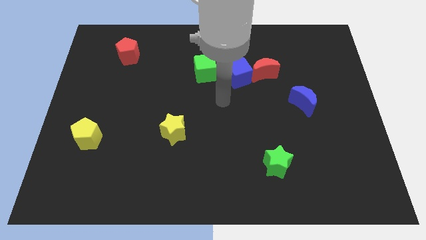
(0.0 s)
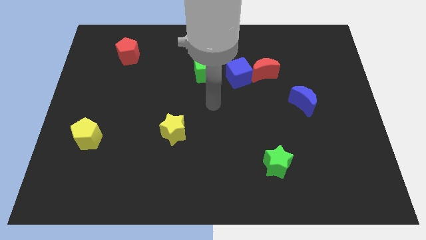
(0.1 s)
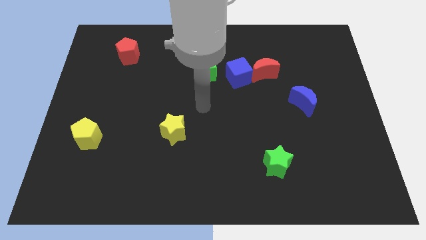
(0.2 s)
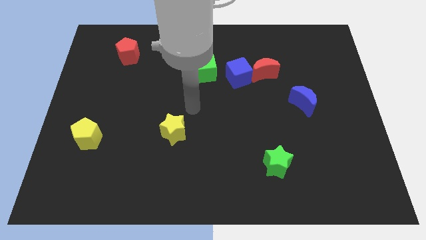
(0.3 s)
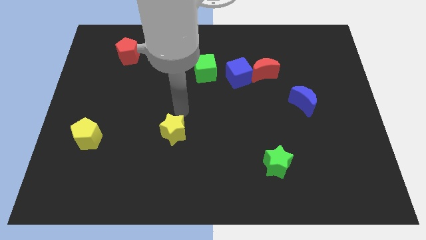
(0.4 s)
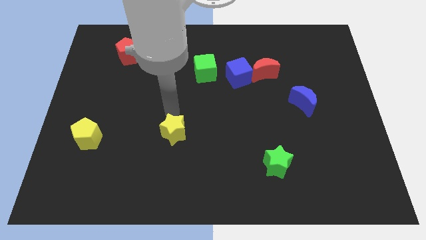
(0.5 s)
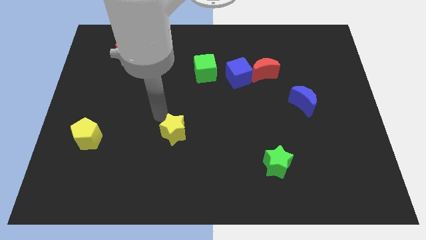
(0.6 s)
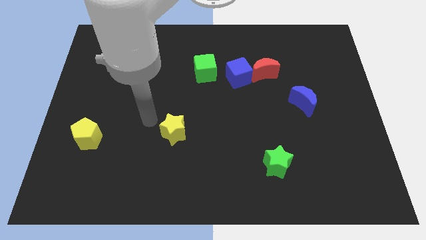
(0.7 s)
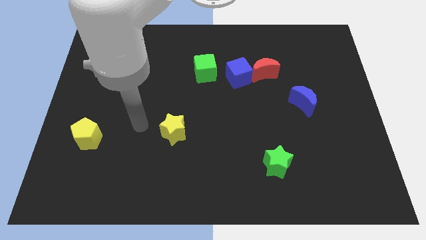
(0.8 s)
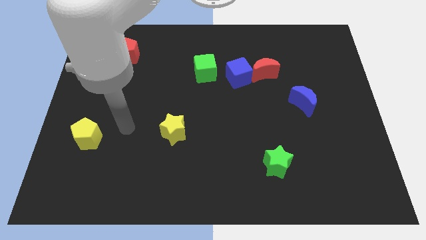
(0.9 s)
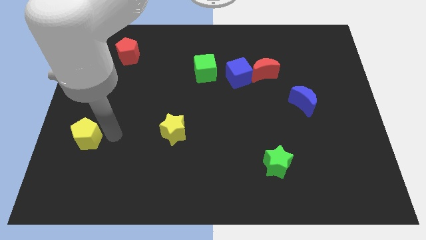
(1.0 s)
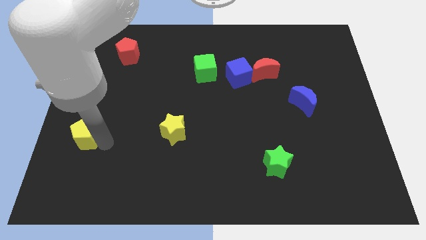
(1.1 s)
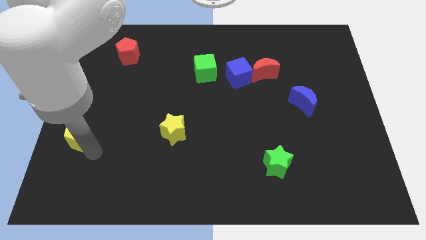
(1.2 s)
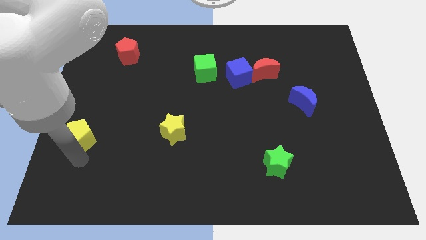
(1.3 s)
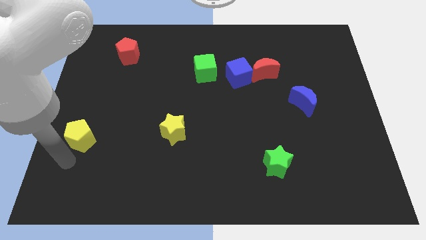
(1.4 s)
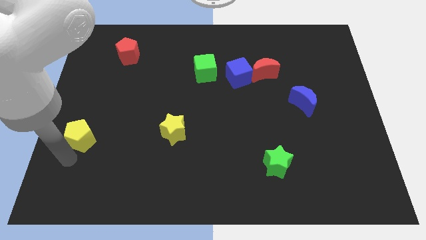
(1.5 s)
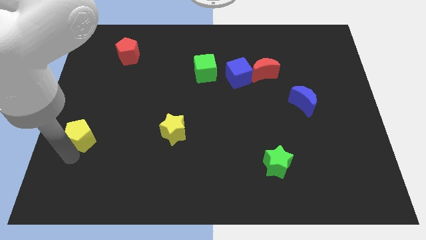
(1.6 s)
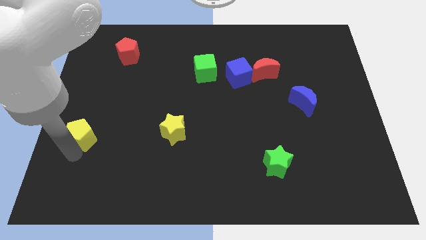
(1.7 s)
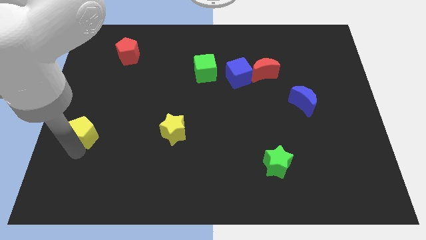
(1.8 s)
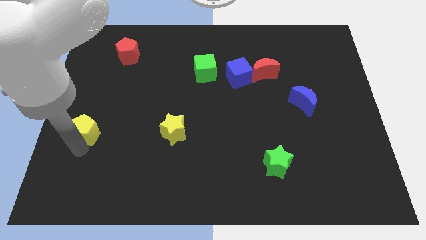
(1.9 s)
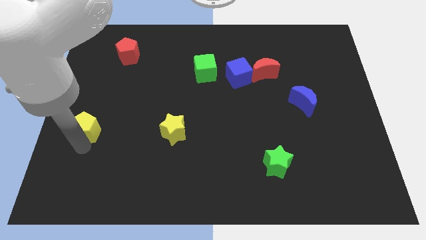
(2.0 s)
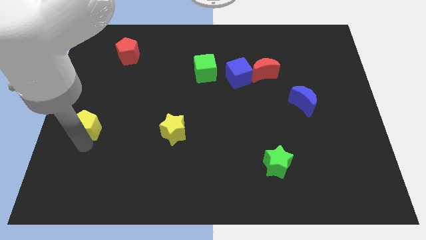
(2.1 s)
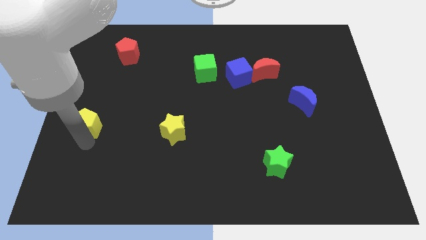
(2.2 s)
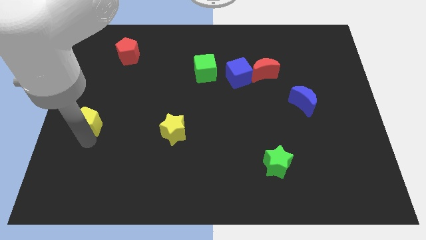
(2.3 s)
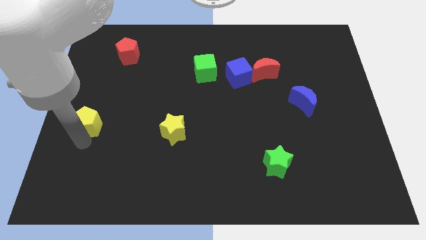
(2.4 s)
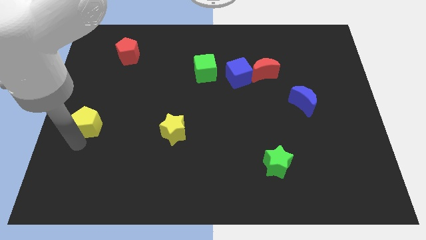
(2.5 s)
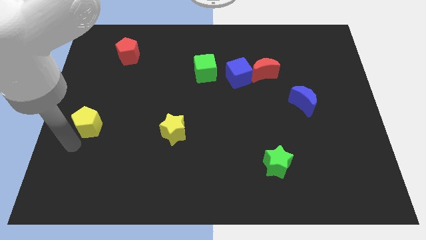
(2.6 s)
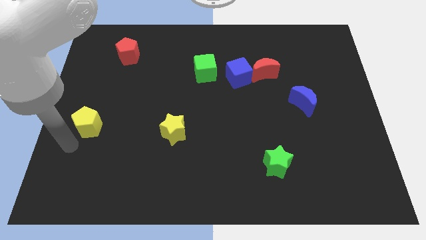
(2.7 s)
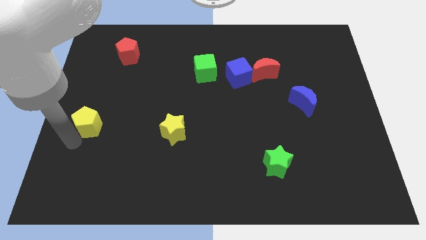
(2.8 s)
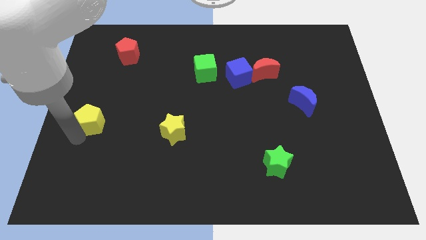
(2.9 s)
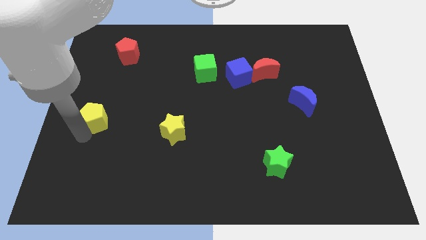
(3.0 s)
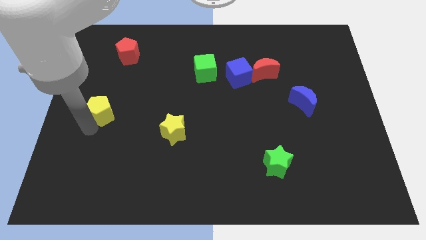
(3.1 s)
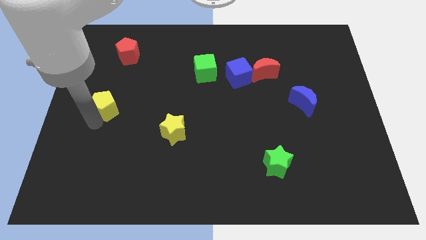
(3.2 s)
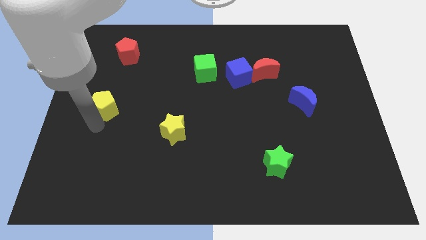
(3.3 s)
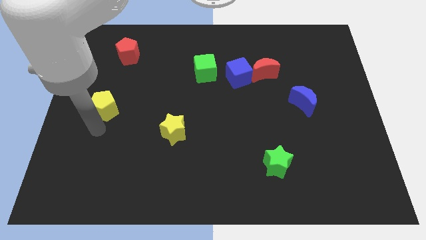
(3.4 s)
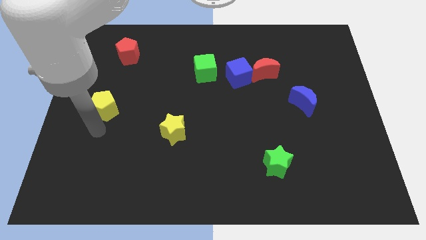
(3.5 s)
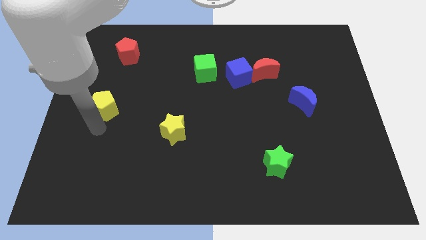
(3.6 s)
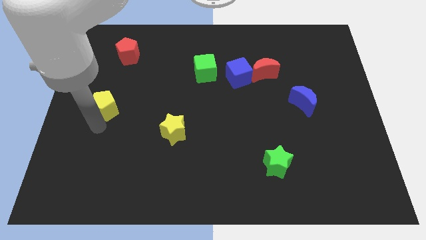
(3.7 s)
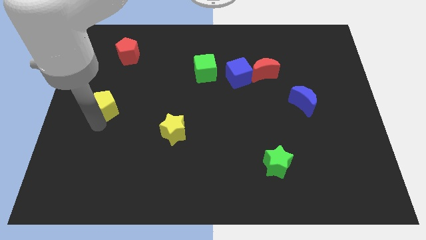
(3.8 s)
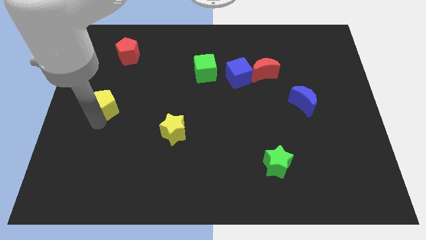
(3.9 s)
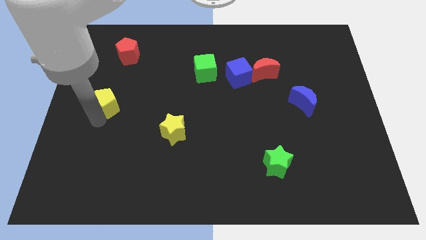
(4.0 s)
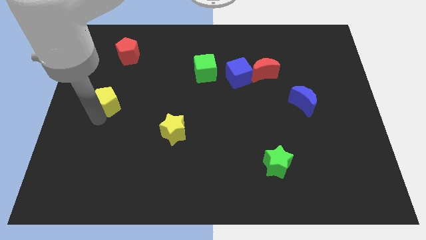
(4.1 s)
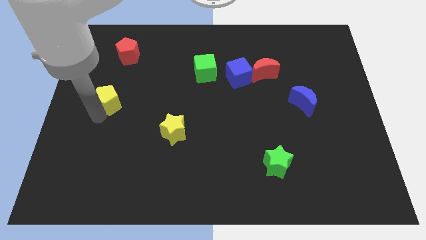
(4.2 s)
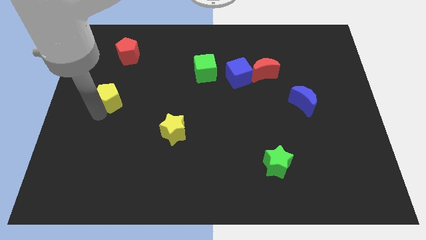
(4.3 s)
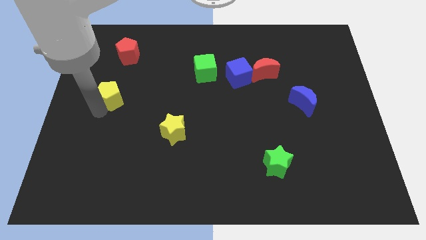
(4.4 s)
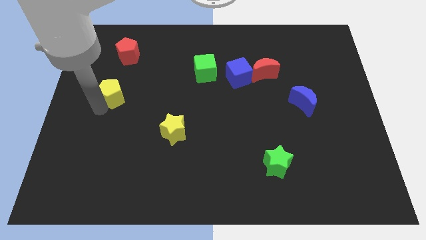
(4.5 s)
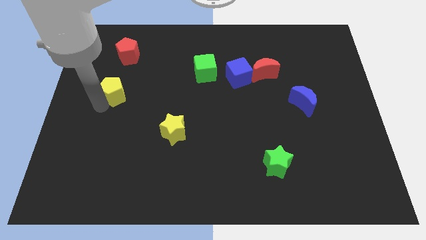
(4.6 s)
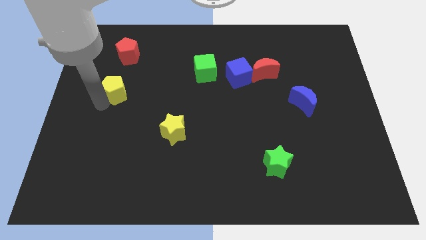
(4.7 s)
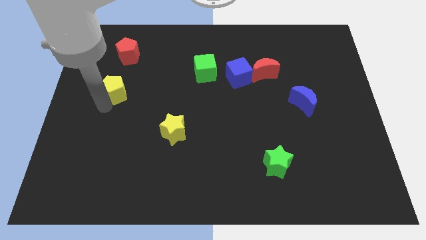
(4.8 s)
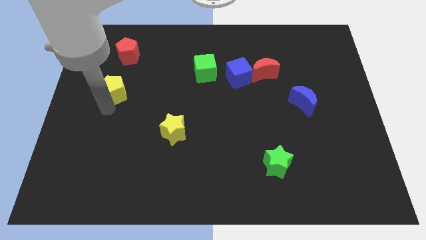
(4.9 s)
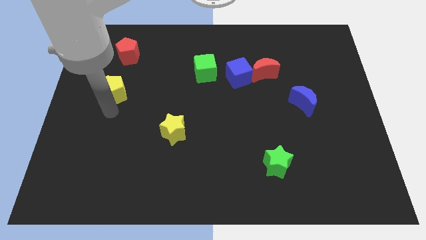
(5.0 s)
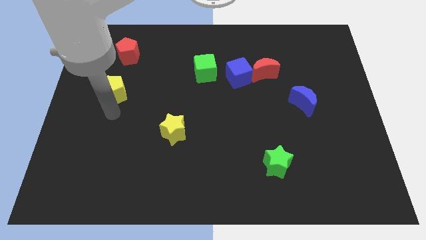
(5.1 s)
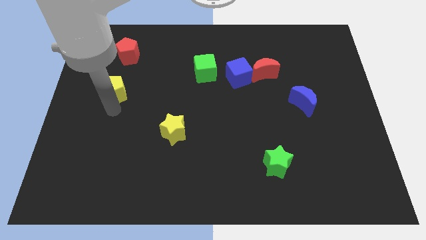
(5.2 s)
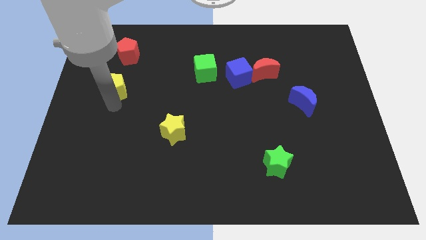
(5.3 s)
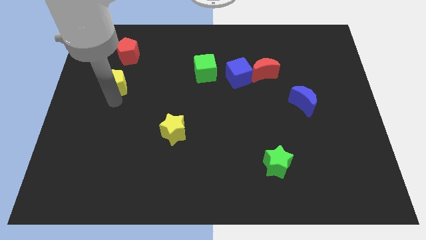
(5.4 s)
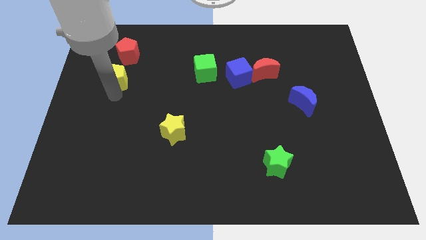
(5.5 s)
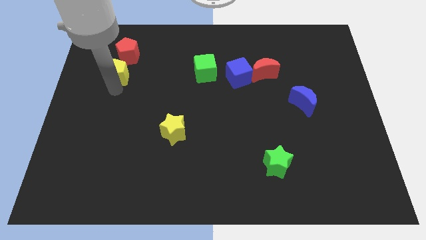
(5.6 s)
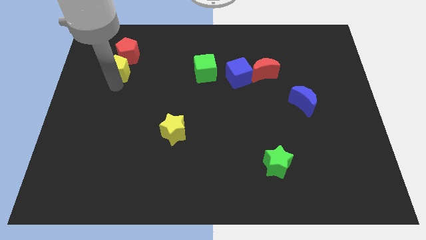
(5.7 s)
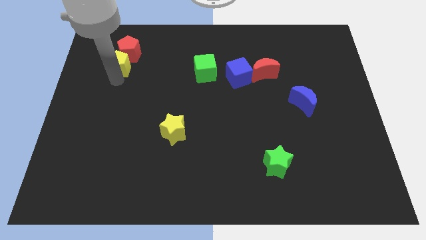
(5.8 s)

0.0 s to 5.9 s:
push the yellow pentagon close to the red pentagon

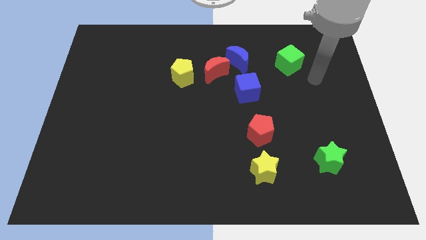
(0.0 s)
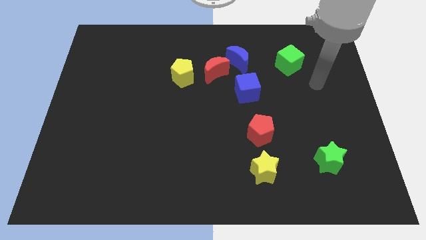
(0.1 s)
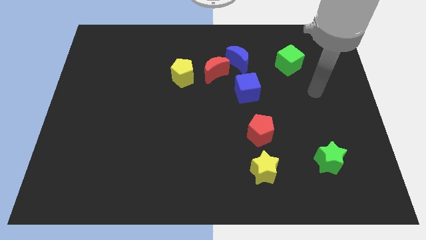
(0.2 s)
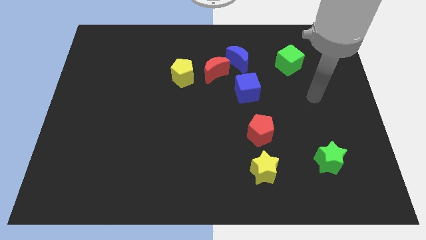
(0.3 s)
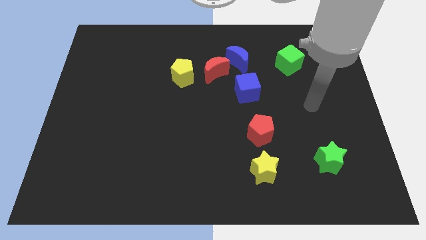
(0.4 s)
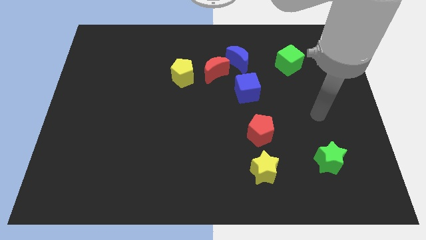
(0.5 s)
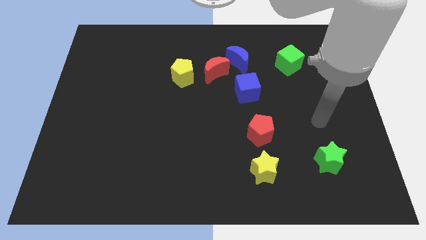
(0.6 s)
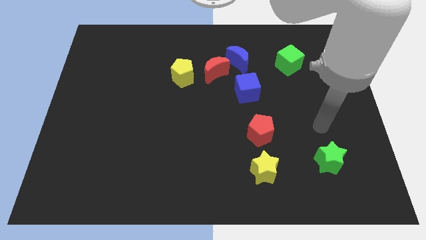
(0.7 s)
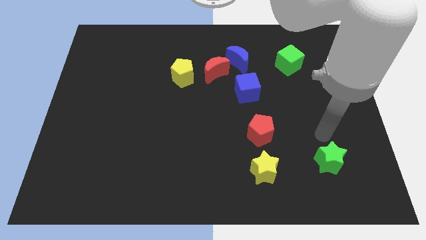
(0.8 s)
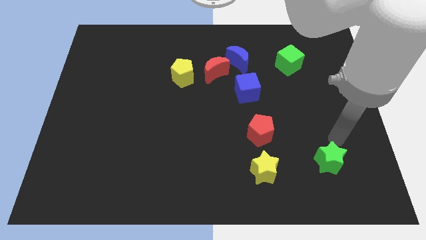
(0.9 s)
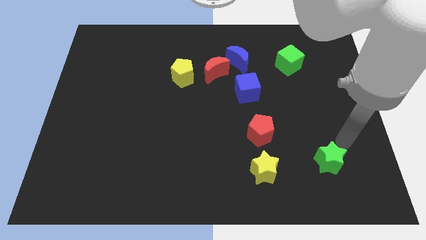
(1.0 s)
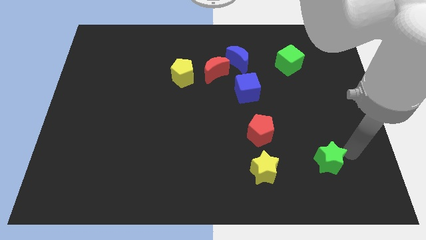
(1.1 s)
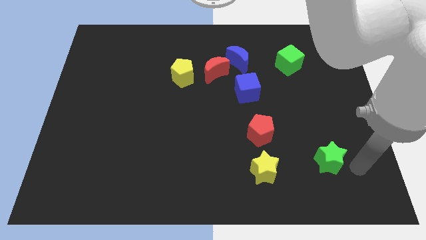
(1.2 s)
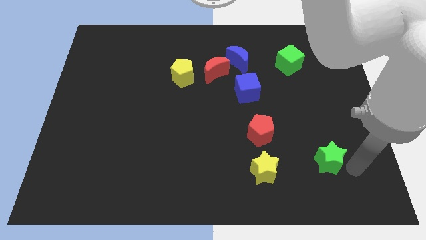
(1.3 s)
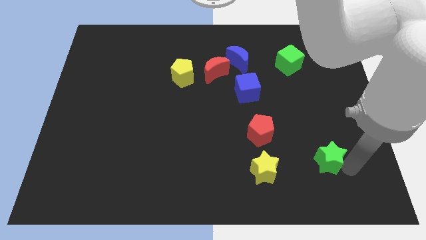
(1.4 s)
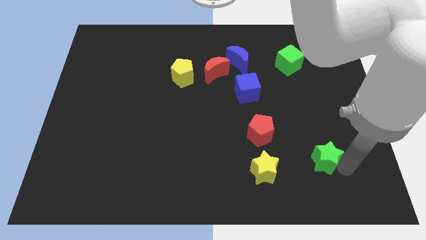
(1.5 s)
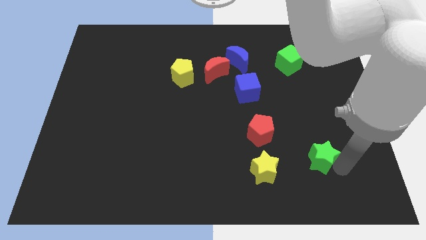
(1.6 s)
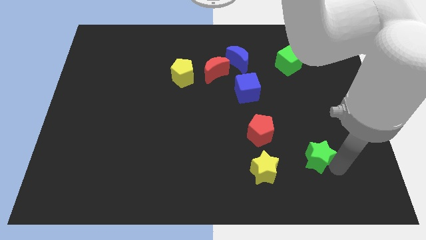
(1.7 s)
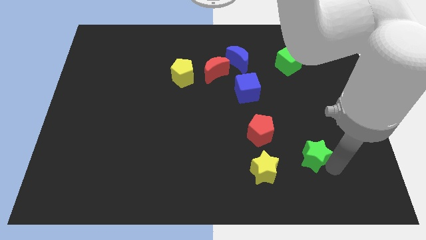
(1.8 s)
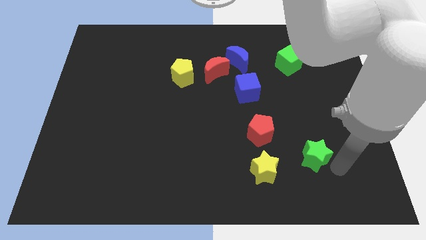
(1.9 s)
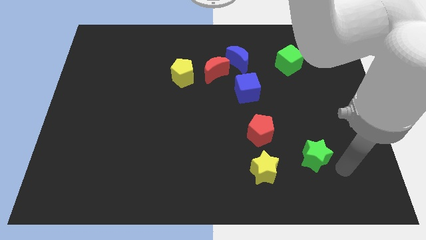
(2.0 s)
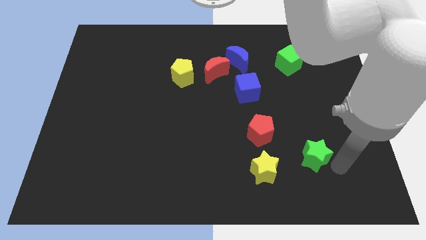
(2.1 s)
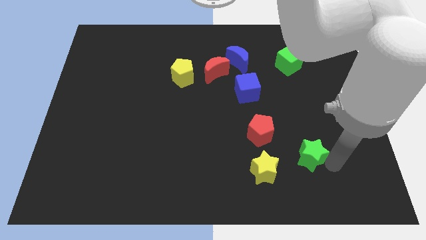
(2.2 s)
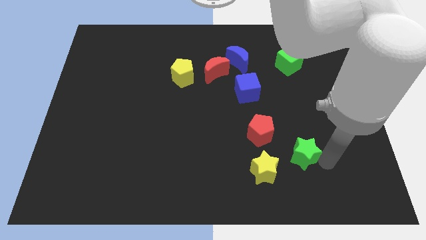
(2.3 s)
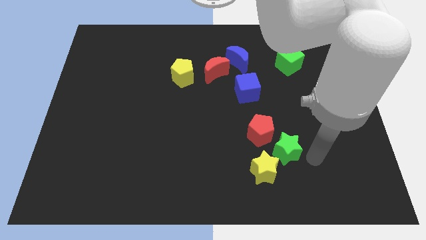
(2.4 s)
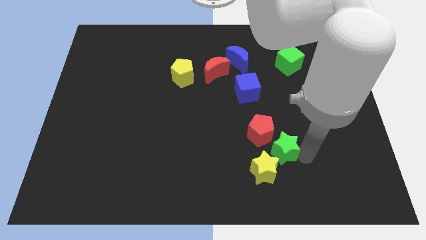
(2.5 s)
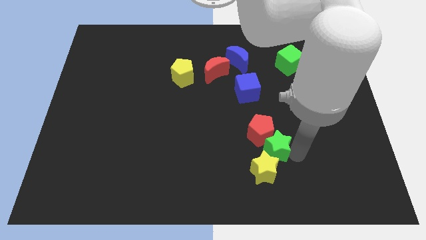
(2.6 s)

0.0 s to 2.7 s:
push the green star close to the red pentagon
